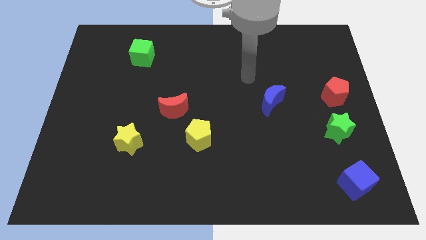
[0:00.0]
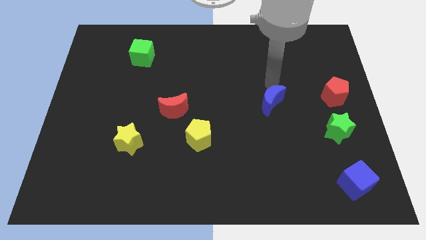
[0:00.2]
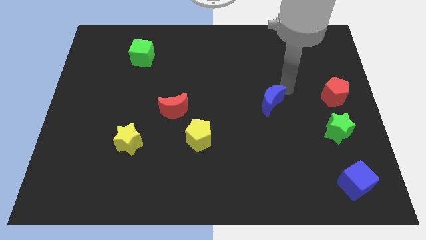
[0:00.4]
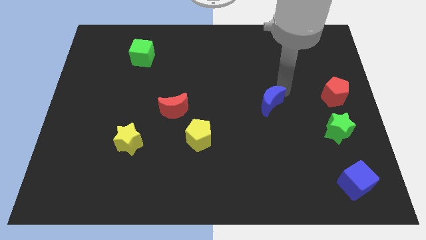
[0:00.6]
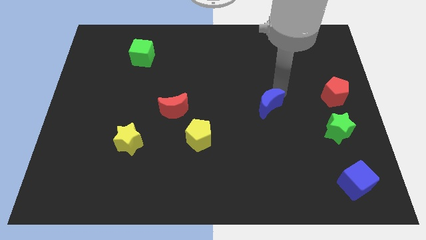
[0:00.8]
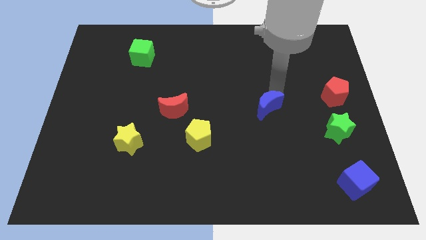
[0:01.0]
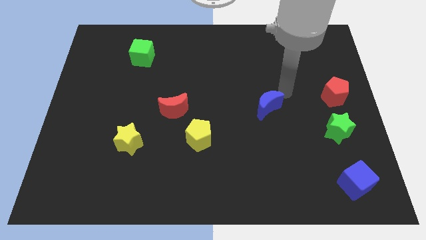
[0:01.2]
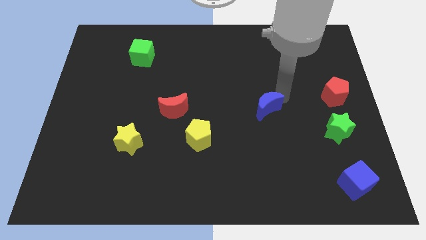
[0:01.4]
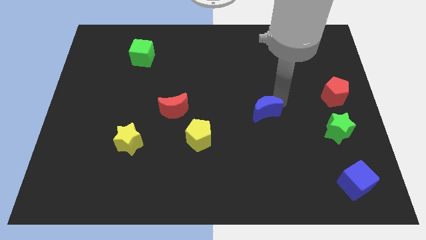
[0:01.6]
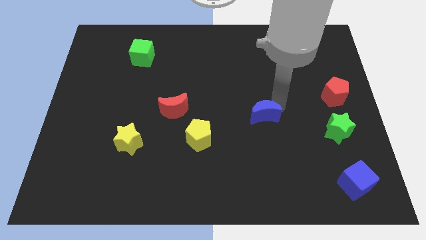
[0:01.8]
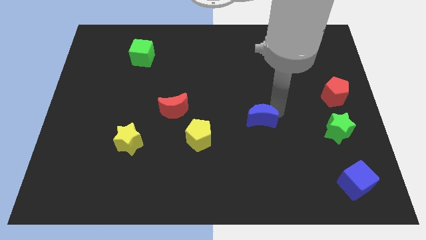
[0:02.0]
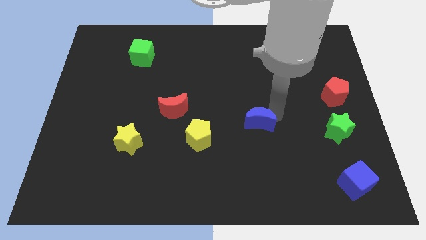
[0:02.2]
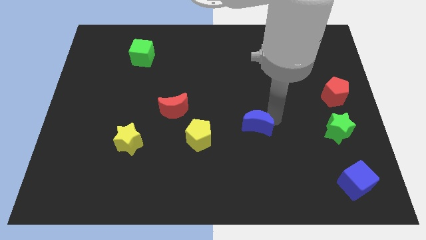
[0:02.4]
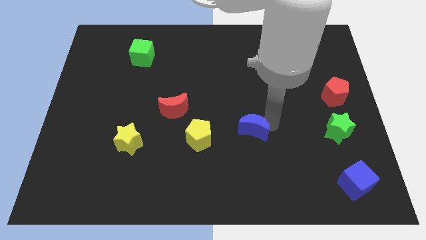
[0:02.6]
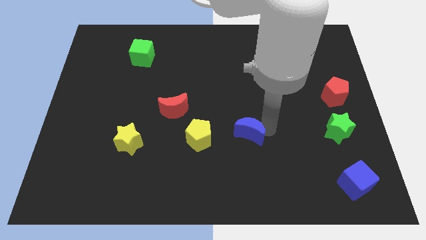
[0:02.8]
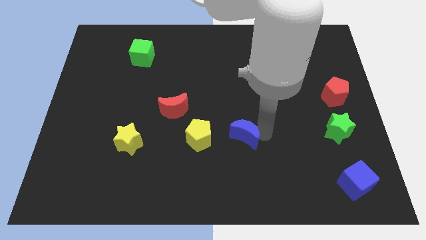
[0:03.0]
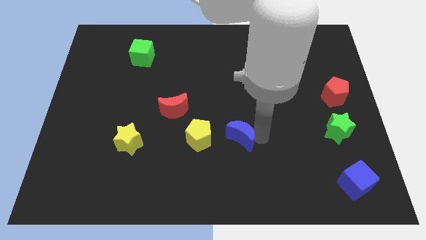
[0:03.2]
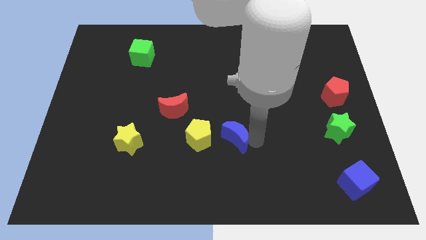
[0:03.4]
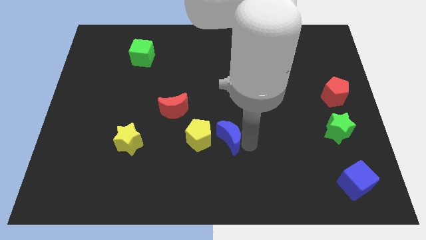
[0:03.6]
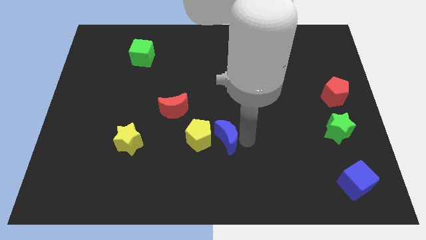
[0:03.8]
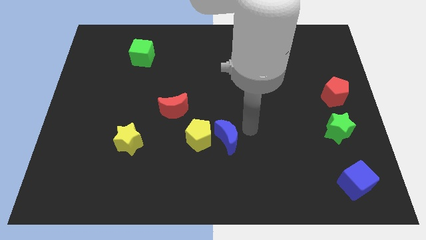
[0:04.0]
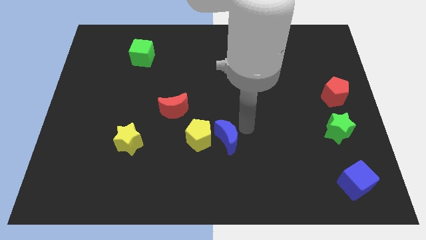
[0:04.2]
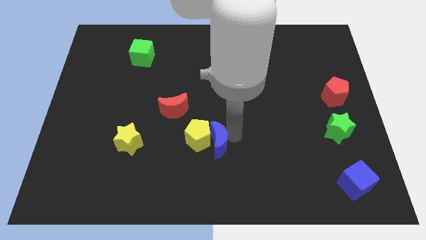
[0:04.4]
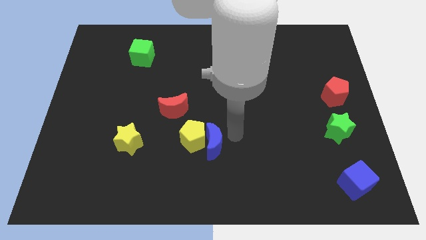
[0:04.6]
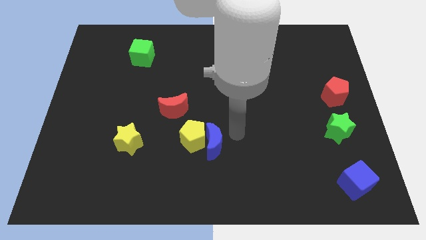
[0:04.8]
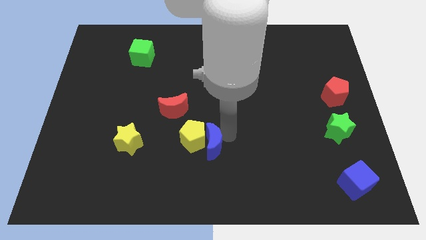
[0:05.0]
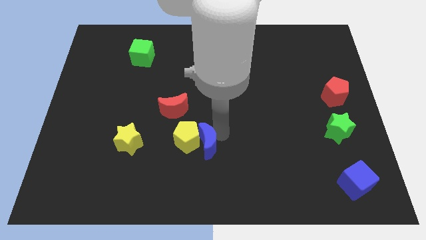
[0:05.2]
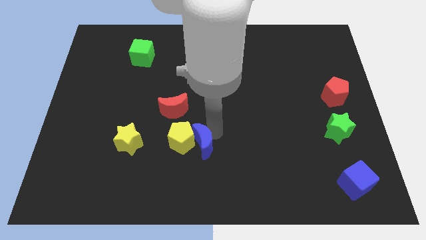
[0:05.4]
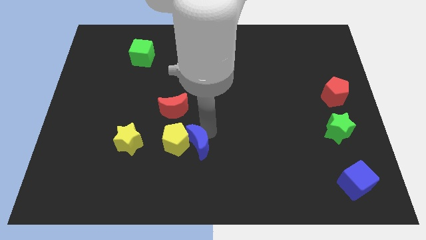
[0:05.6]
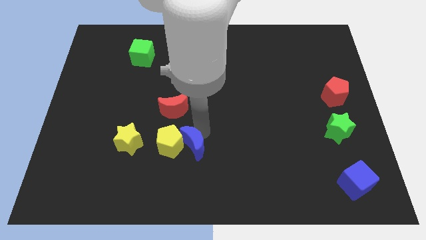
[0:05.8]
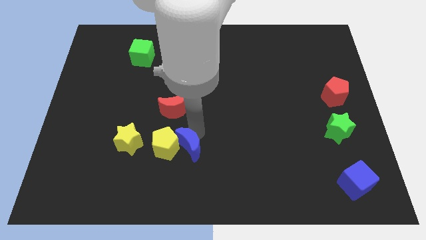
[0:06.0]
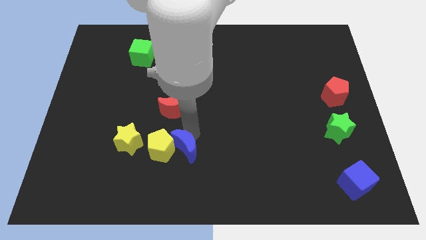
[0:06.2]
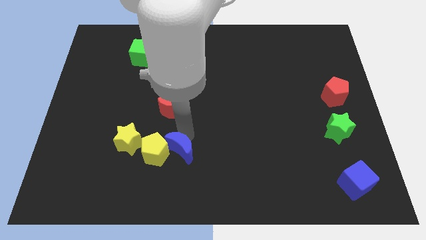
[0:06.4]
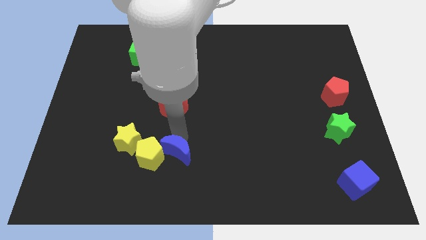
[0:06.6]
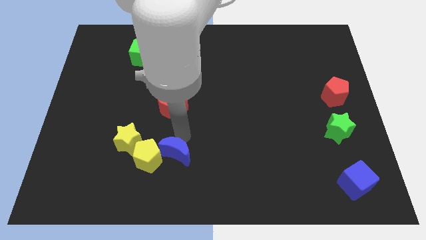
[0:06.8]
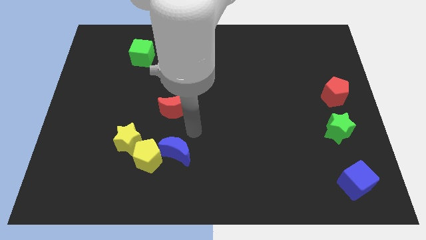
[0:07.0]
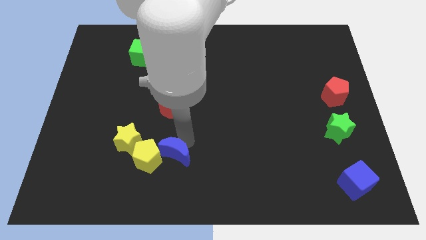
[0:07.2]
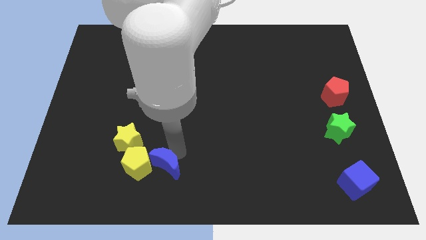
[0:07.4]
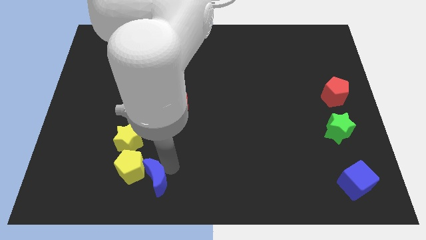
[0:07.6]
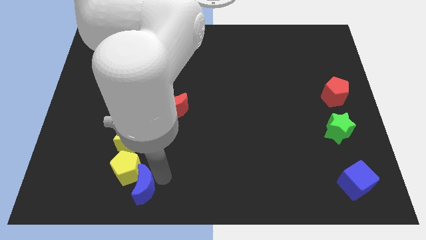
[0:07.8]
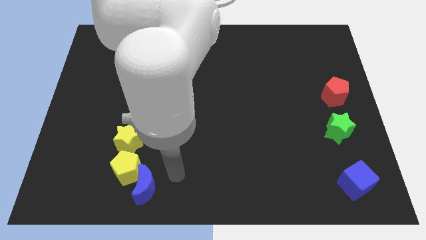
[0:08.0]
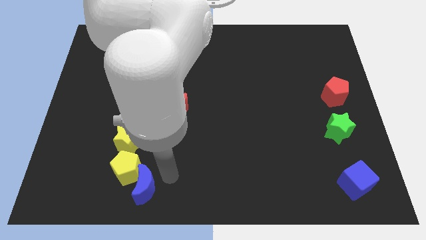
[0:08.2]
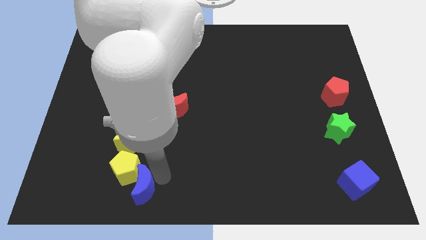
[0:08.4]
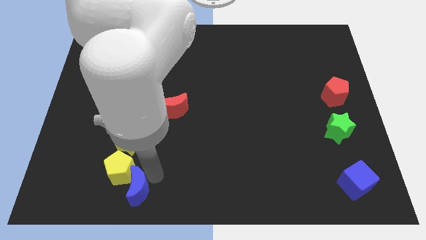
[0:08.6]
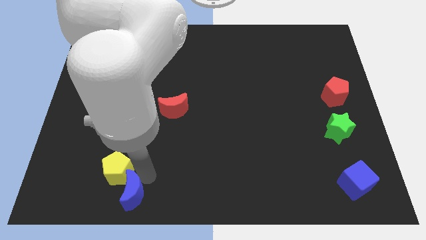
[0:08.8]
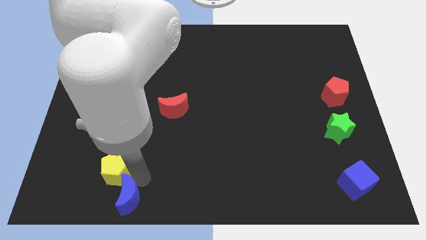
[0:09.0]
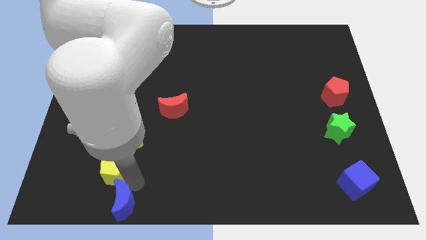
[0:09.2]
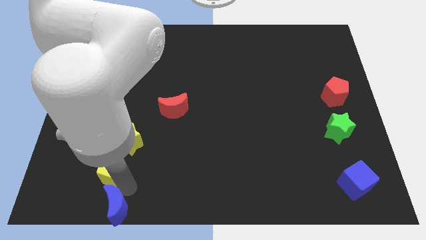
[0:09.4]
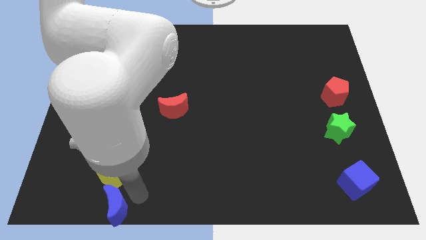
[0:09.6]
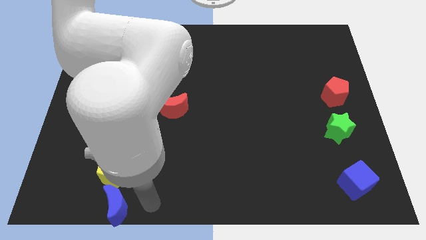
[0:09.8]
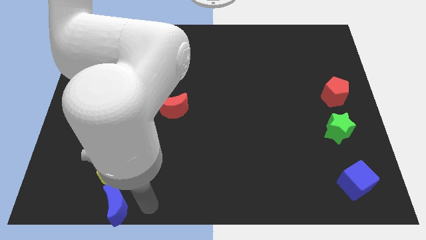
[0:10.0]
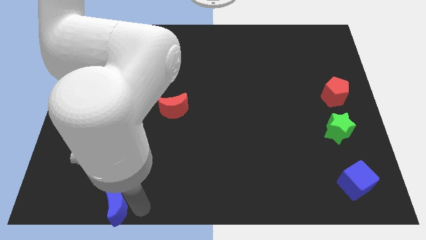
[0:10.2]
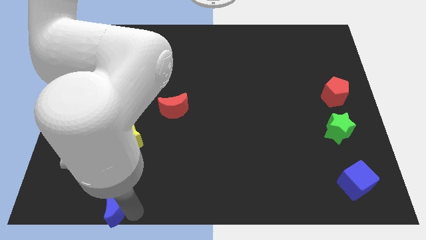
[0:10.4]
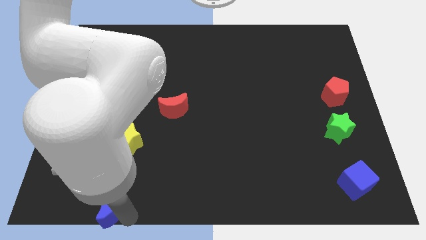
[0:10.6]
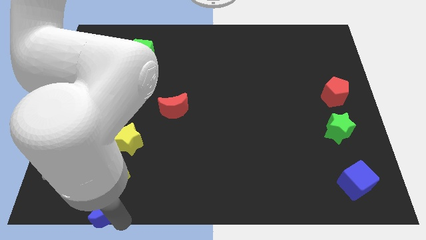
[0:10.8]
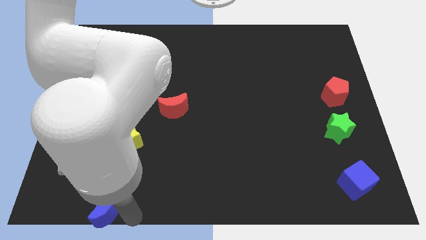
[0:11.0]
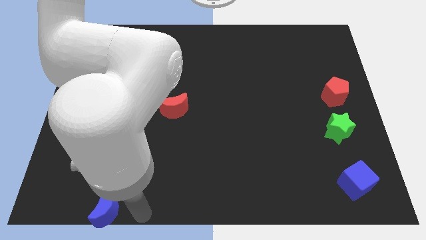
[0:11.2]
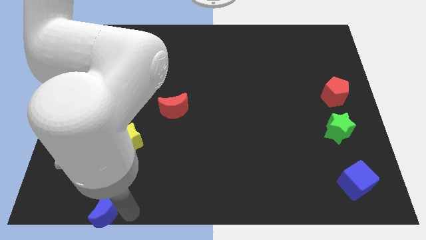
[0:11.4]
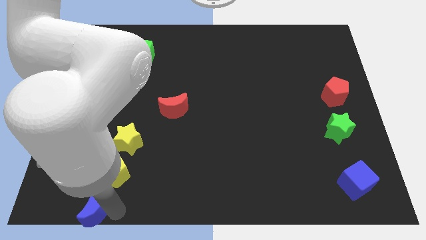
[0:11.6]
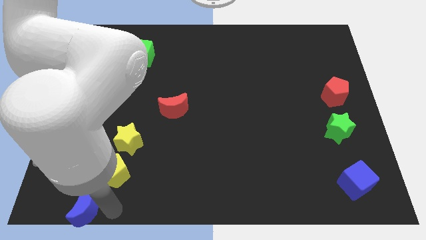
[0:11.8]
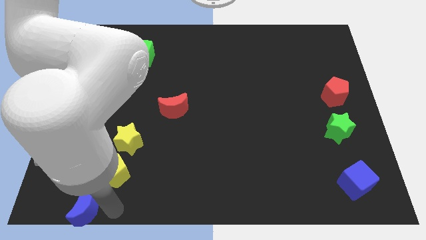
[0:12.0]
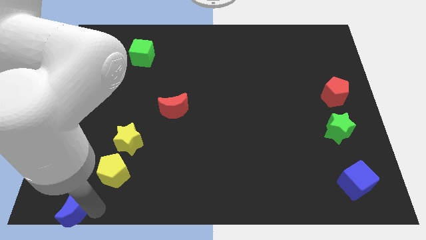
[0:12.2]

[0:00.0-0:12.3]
push the blue moon to the bottom left of the board

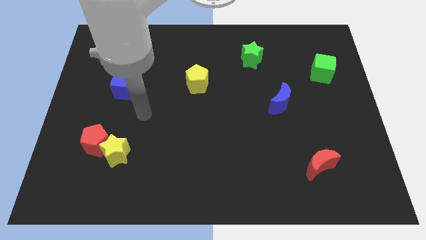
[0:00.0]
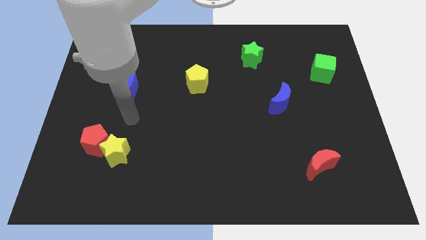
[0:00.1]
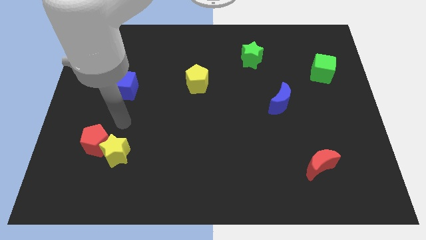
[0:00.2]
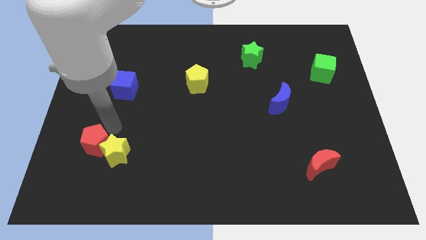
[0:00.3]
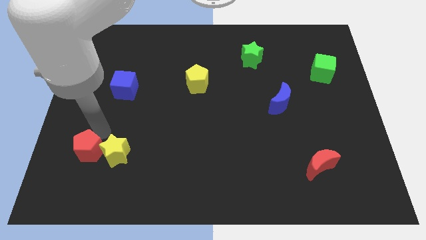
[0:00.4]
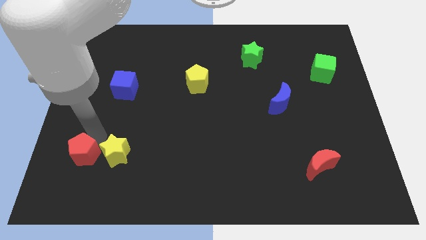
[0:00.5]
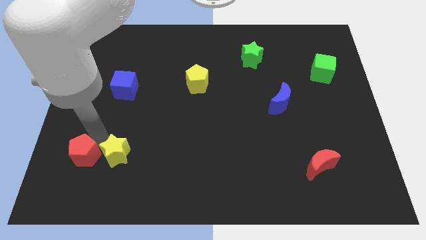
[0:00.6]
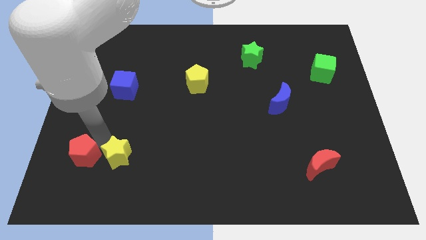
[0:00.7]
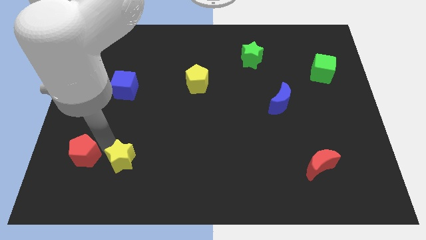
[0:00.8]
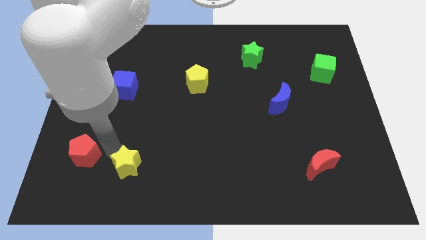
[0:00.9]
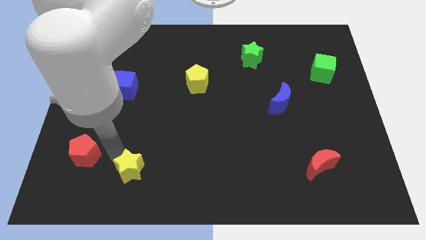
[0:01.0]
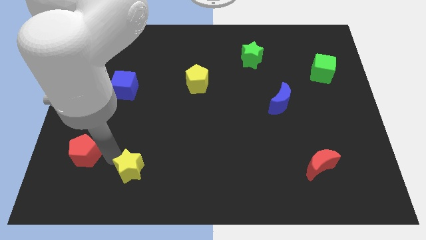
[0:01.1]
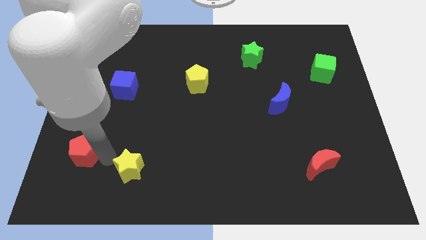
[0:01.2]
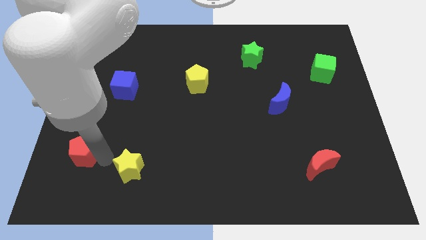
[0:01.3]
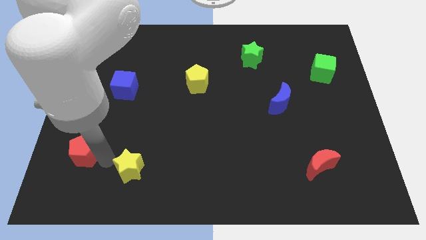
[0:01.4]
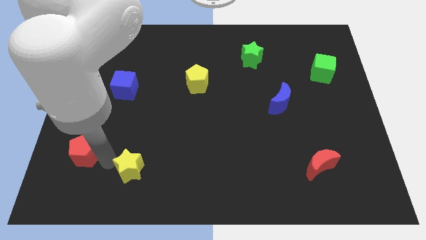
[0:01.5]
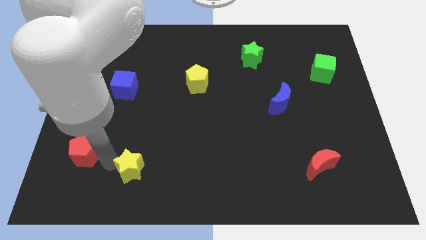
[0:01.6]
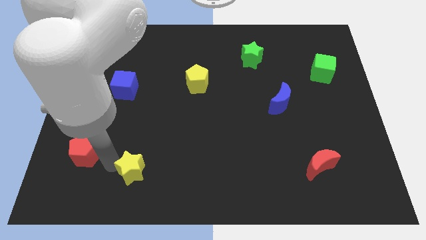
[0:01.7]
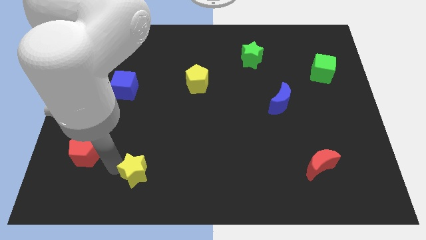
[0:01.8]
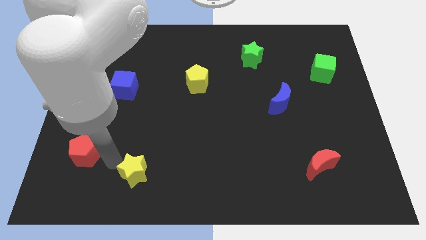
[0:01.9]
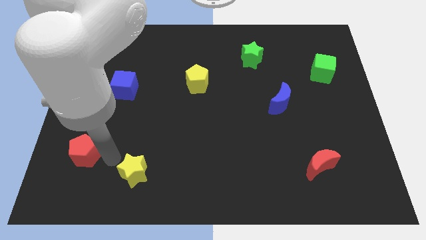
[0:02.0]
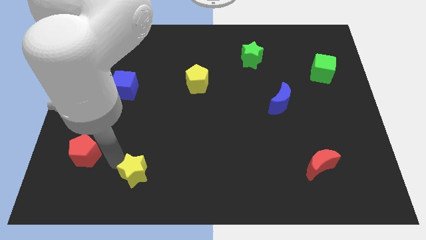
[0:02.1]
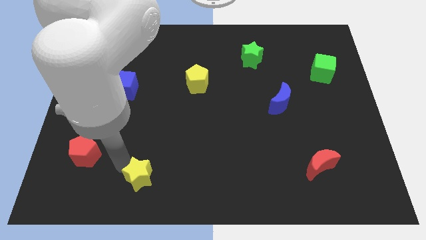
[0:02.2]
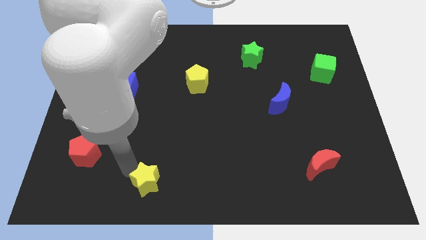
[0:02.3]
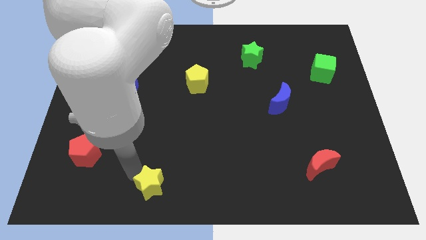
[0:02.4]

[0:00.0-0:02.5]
move the yellow star to the bottom side
